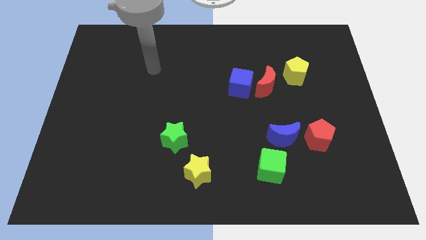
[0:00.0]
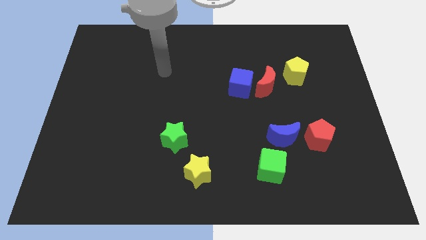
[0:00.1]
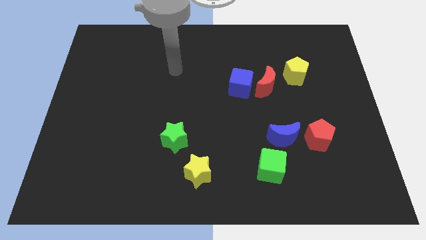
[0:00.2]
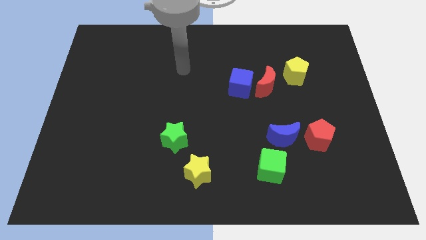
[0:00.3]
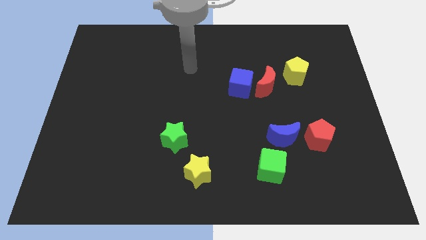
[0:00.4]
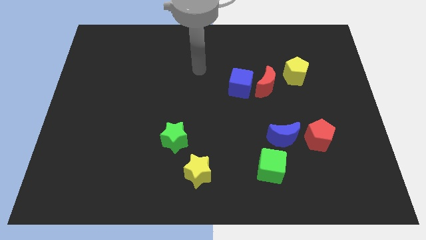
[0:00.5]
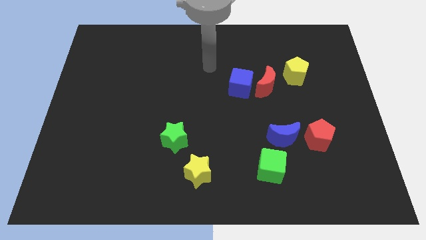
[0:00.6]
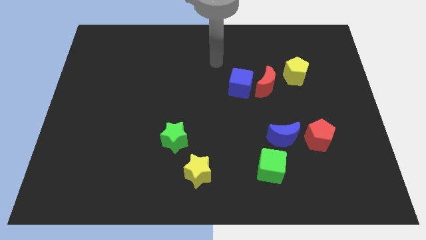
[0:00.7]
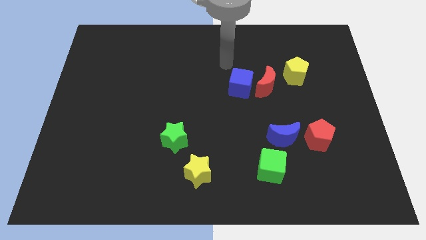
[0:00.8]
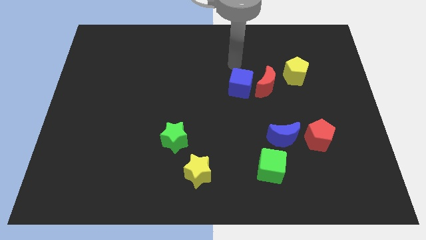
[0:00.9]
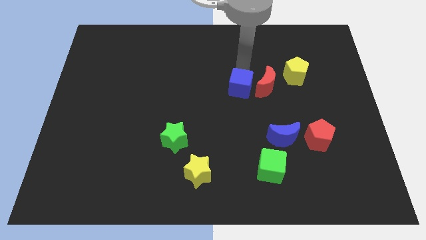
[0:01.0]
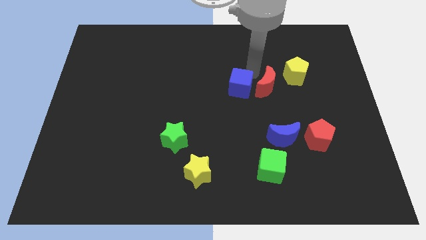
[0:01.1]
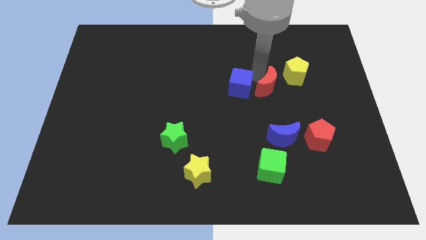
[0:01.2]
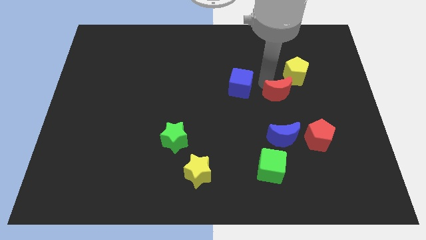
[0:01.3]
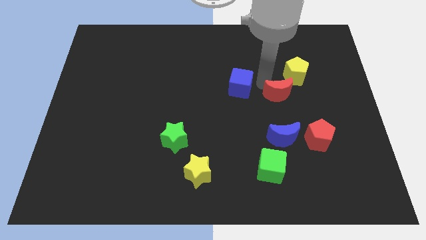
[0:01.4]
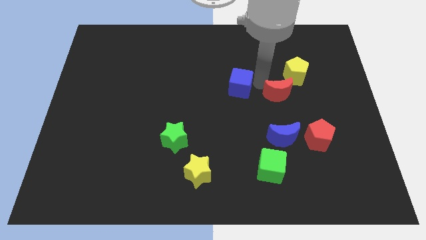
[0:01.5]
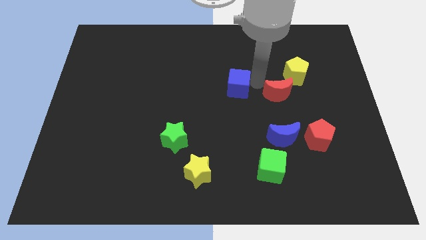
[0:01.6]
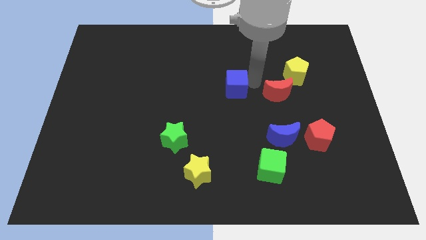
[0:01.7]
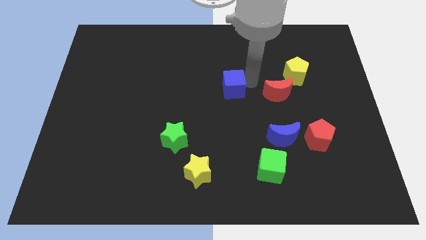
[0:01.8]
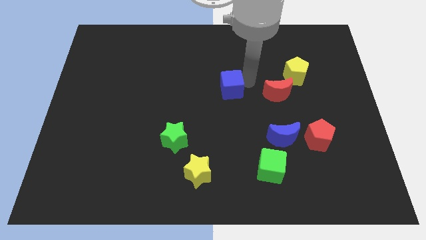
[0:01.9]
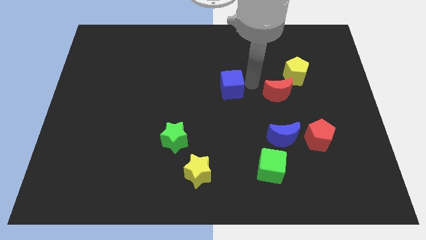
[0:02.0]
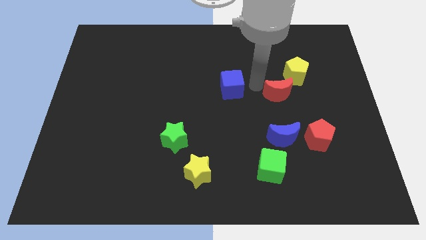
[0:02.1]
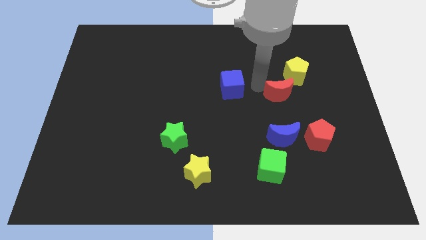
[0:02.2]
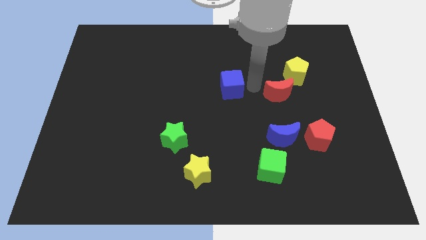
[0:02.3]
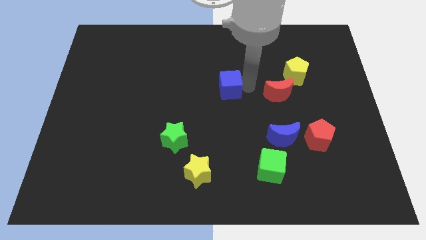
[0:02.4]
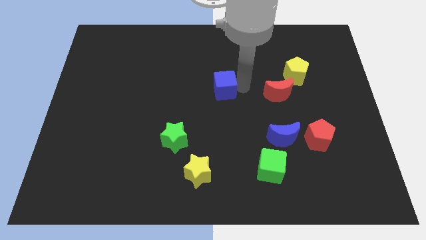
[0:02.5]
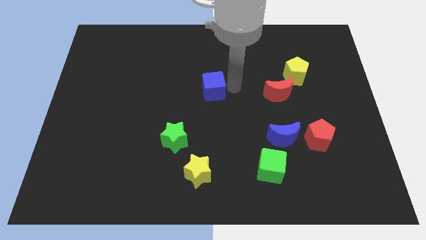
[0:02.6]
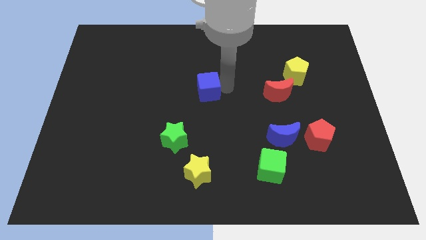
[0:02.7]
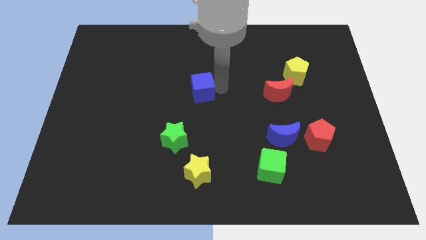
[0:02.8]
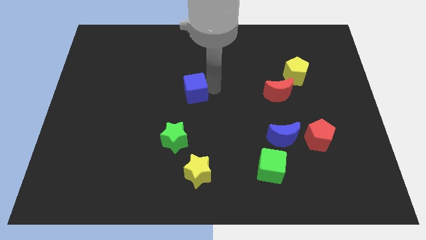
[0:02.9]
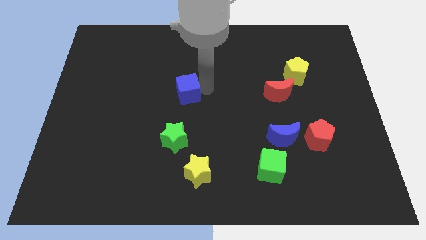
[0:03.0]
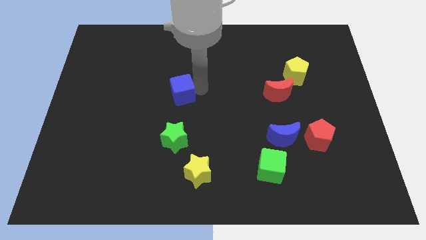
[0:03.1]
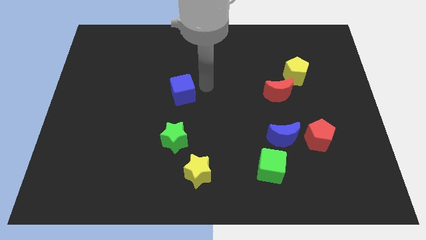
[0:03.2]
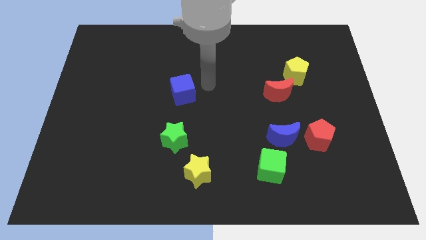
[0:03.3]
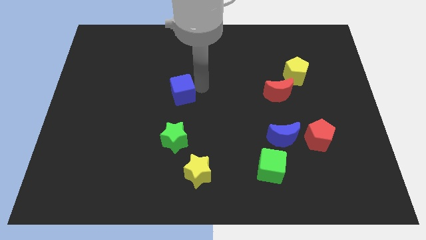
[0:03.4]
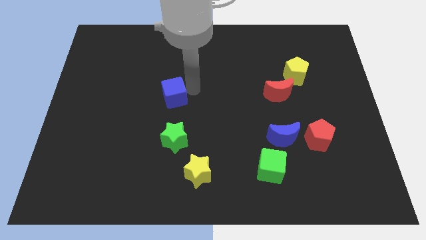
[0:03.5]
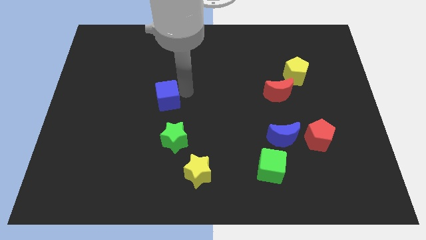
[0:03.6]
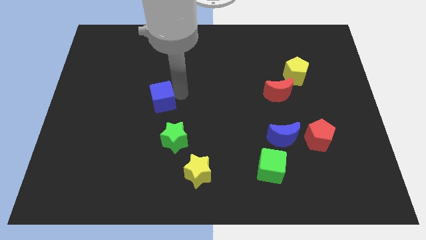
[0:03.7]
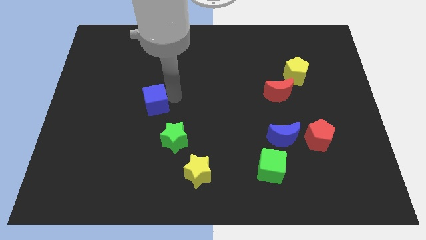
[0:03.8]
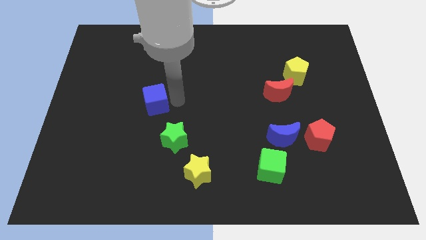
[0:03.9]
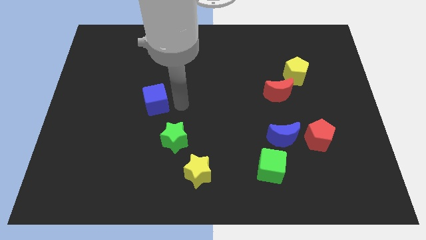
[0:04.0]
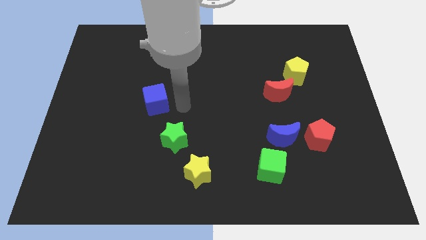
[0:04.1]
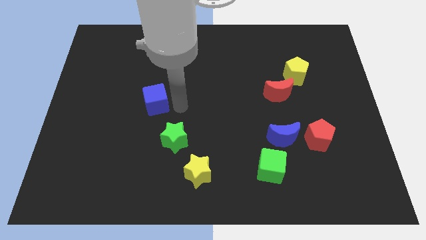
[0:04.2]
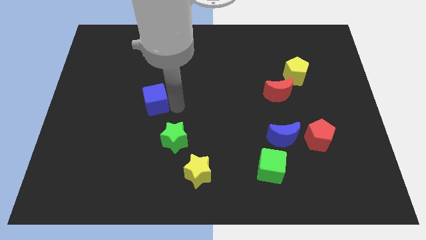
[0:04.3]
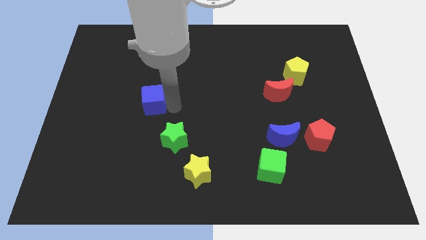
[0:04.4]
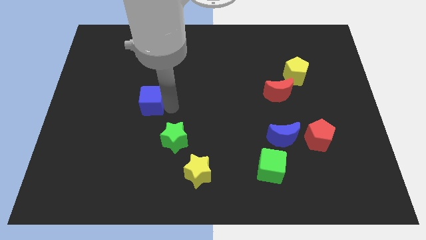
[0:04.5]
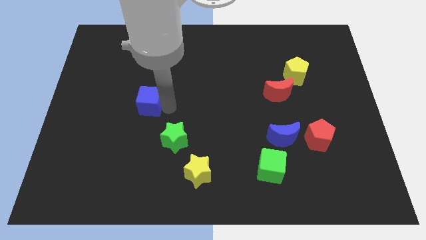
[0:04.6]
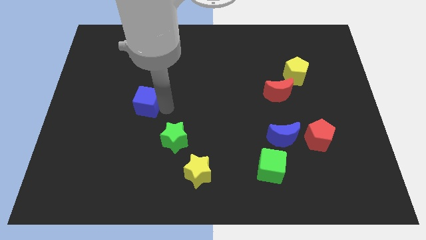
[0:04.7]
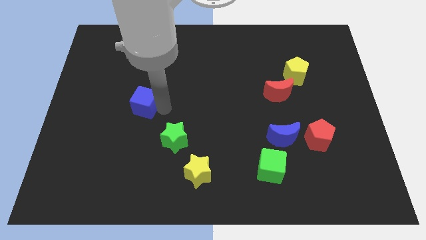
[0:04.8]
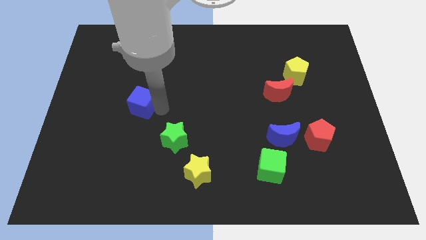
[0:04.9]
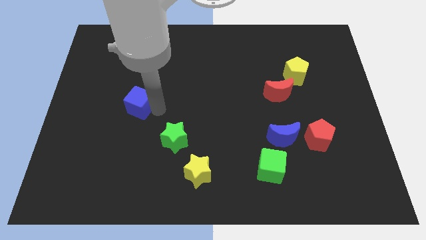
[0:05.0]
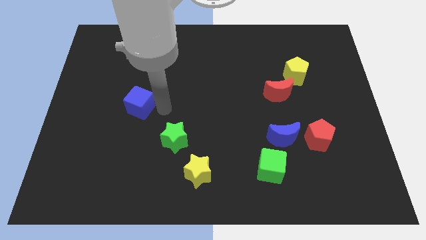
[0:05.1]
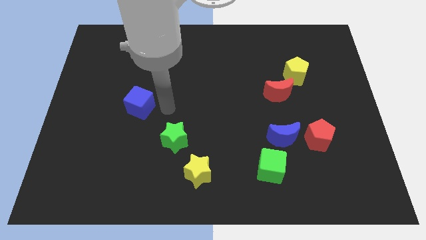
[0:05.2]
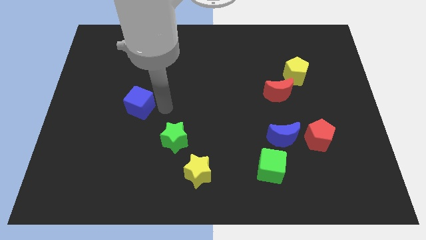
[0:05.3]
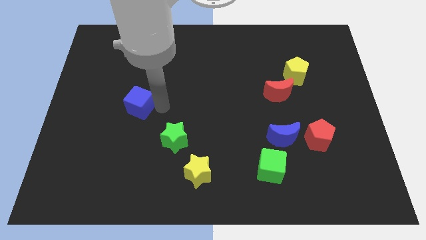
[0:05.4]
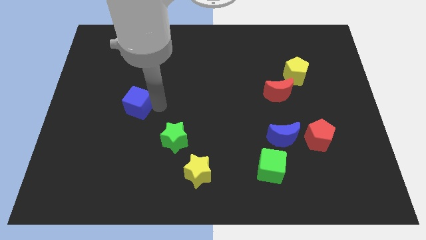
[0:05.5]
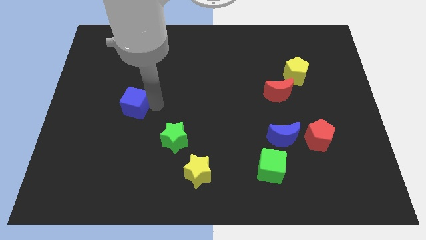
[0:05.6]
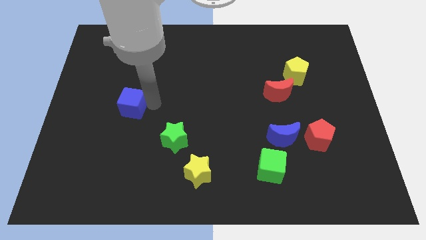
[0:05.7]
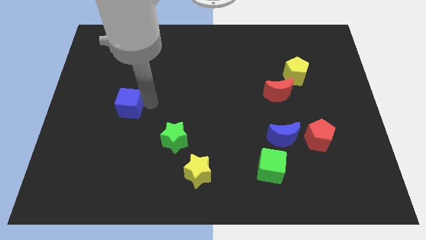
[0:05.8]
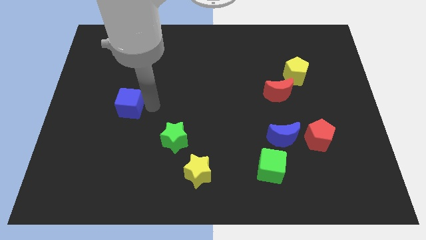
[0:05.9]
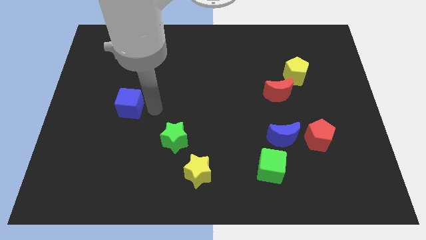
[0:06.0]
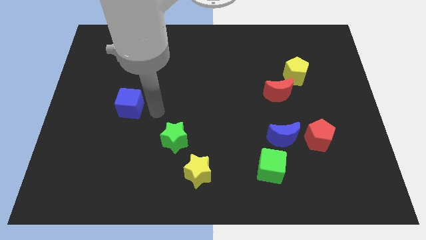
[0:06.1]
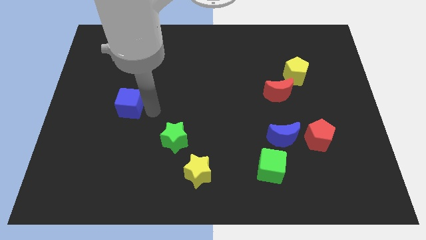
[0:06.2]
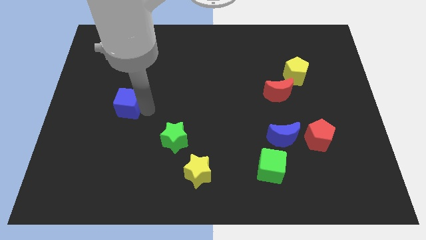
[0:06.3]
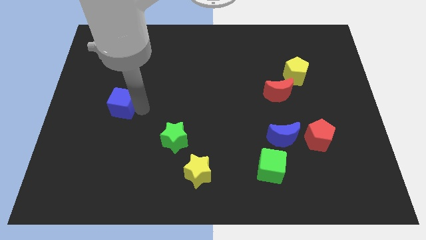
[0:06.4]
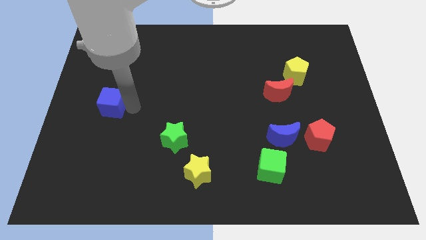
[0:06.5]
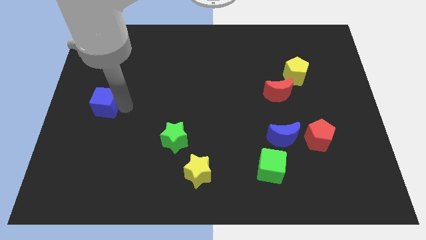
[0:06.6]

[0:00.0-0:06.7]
put the blue cube to the left side of the board
